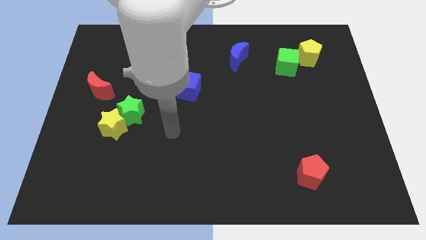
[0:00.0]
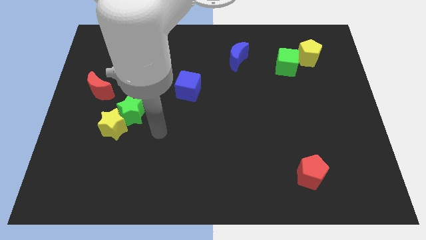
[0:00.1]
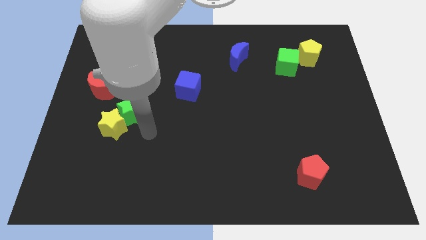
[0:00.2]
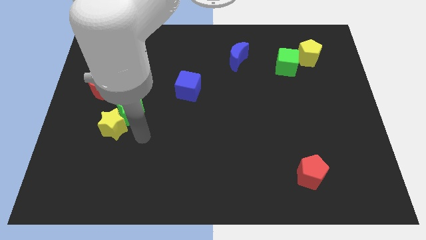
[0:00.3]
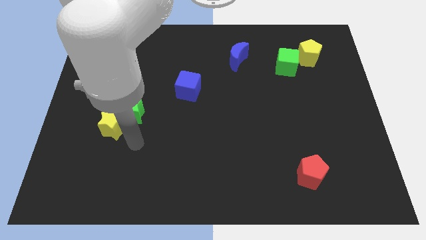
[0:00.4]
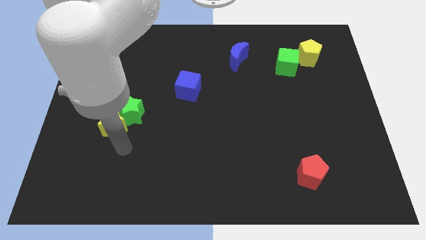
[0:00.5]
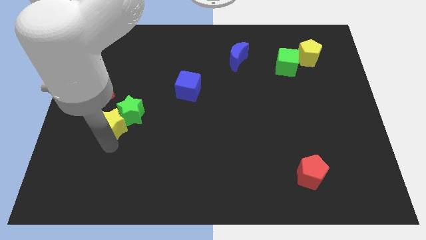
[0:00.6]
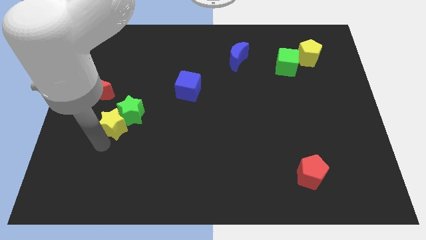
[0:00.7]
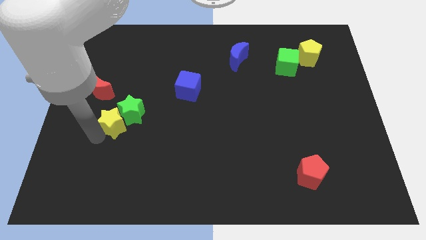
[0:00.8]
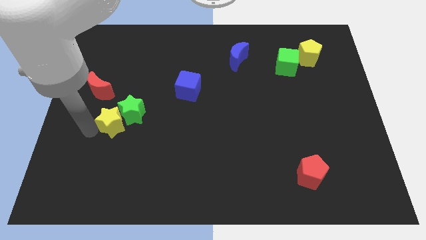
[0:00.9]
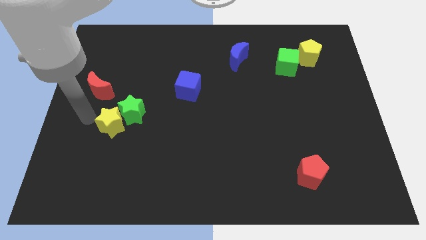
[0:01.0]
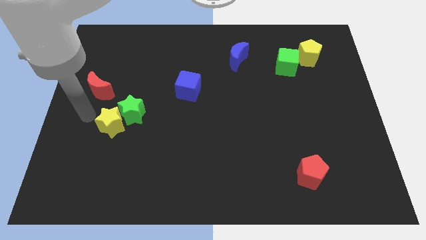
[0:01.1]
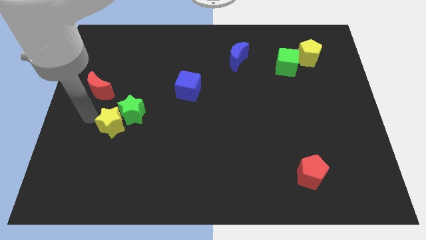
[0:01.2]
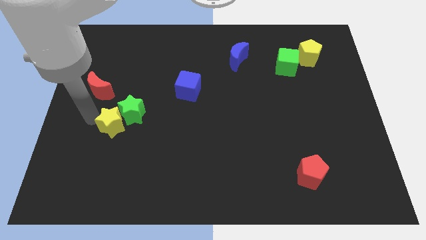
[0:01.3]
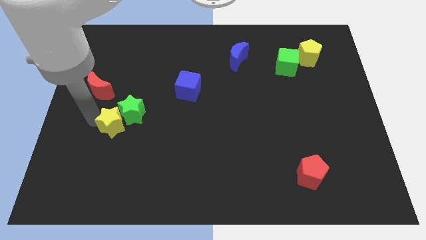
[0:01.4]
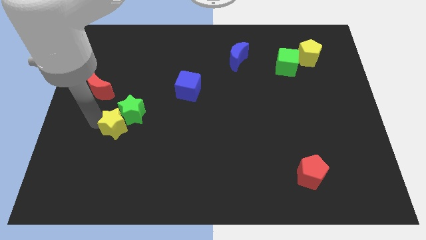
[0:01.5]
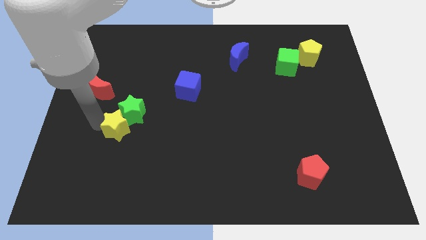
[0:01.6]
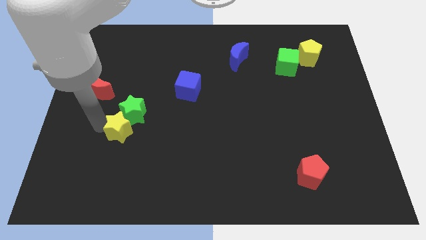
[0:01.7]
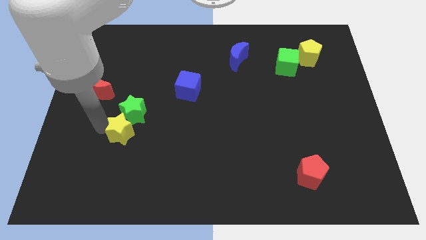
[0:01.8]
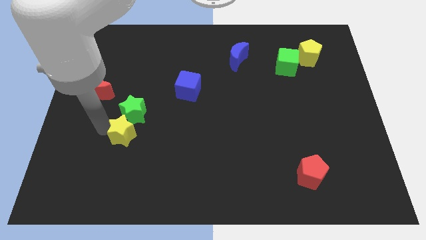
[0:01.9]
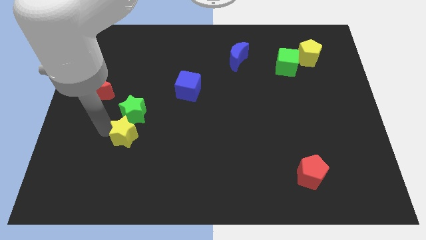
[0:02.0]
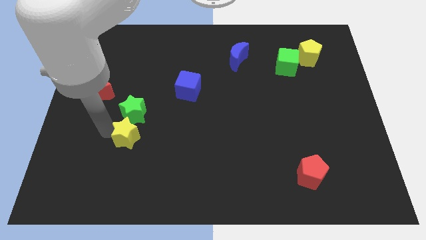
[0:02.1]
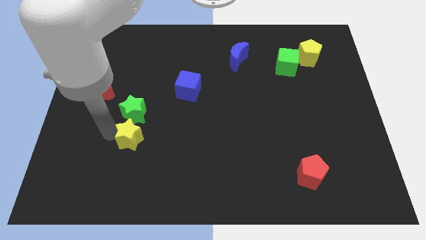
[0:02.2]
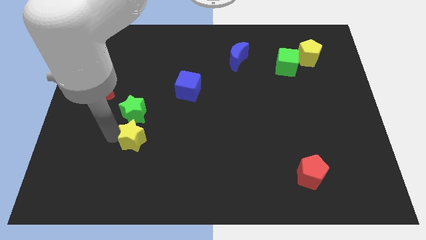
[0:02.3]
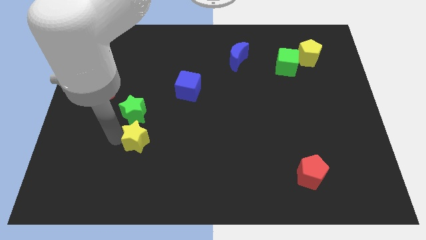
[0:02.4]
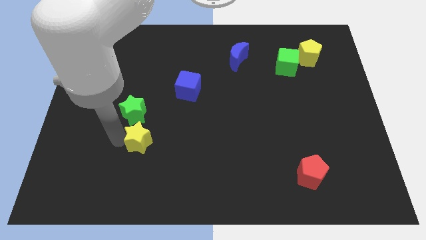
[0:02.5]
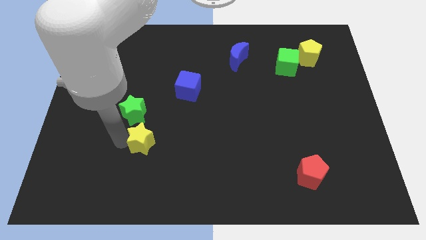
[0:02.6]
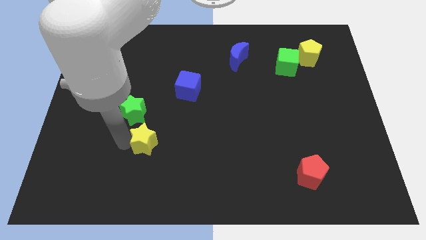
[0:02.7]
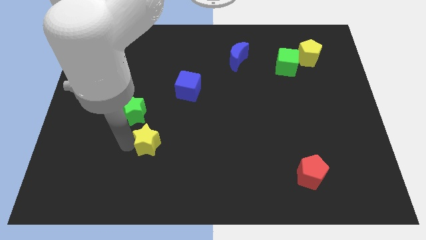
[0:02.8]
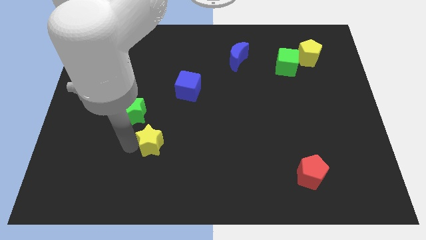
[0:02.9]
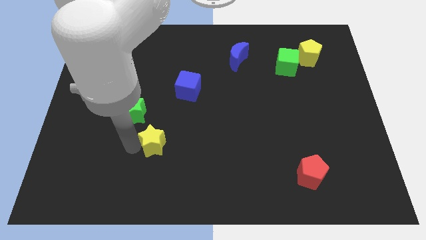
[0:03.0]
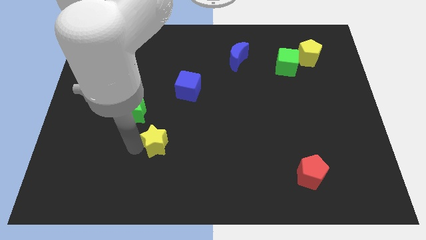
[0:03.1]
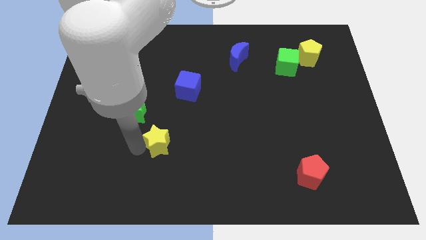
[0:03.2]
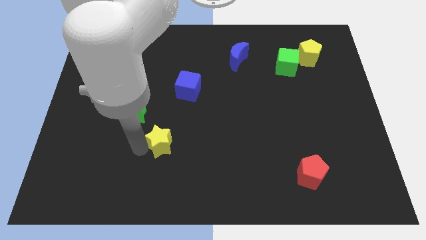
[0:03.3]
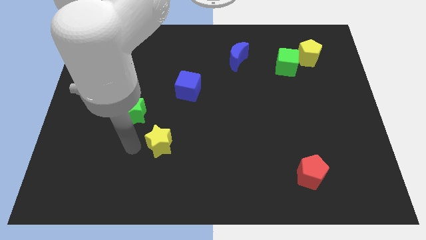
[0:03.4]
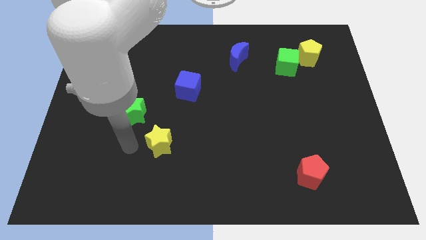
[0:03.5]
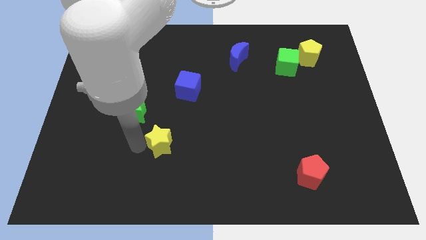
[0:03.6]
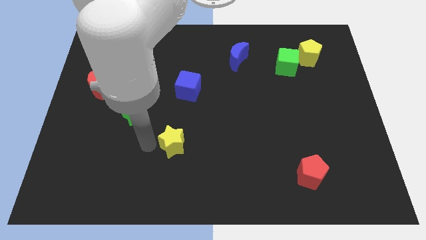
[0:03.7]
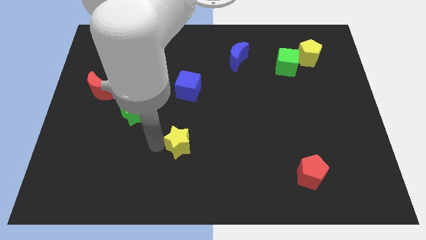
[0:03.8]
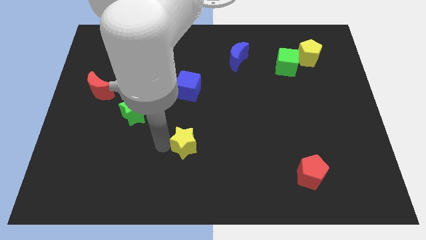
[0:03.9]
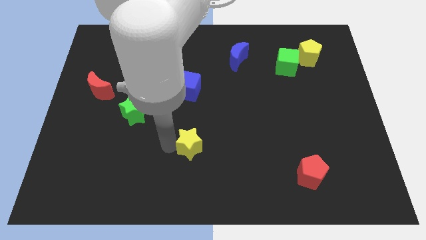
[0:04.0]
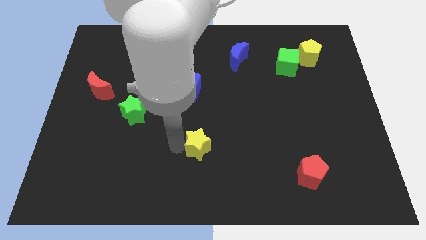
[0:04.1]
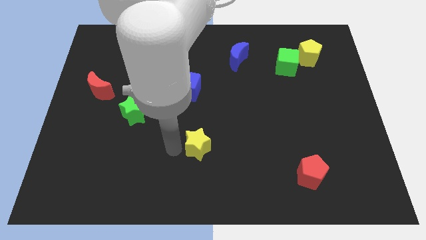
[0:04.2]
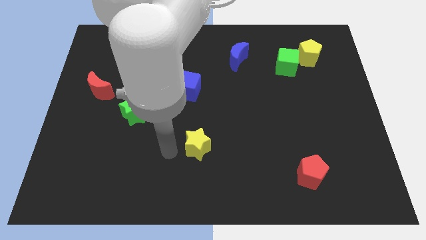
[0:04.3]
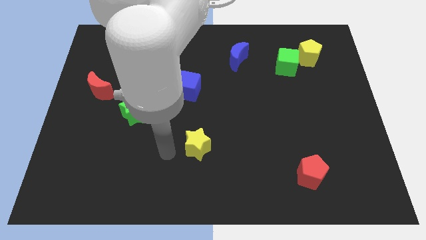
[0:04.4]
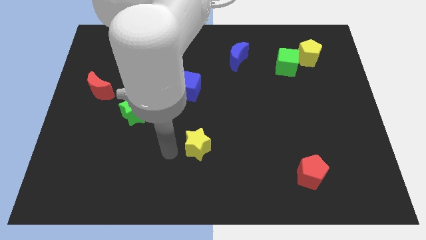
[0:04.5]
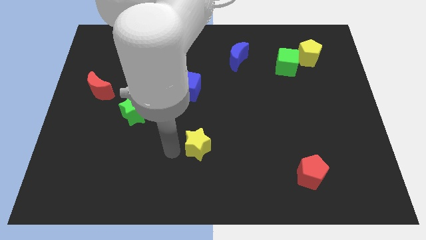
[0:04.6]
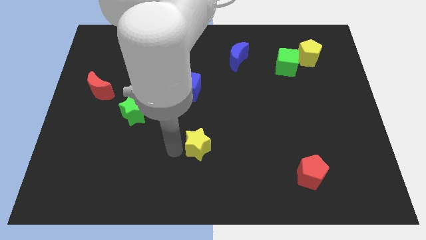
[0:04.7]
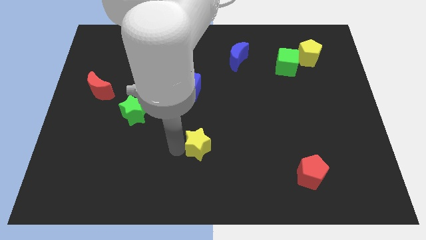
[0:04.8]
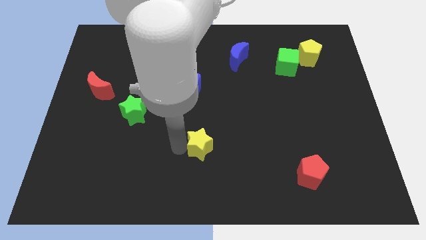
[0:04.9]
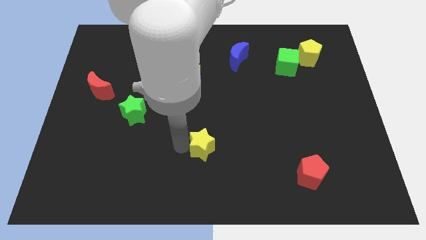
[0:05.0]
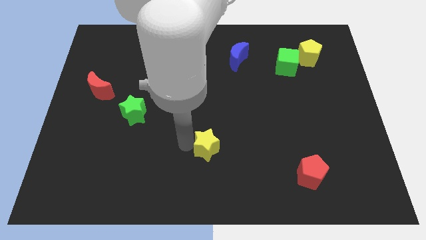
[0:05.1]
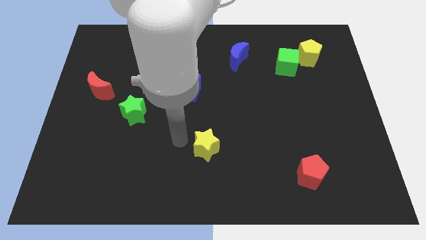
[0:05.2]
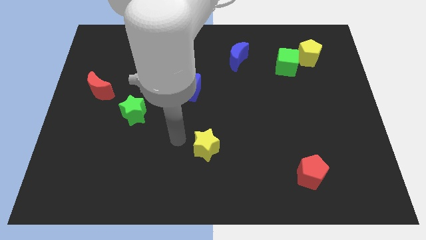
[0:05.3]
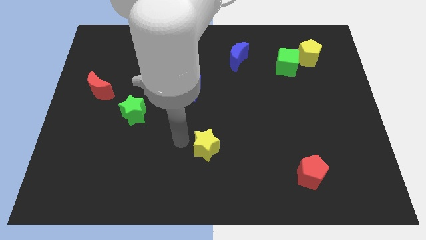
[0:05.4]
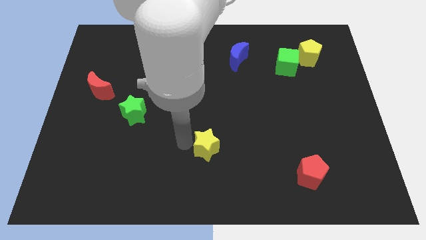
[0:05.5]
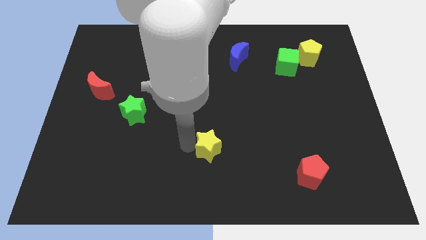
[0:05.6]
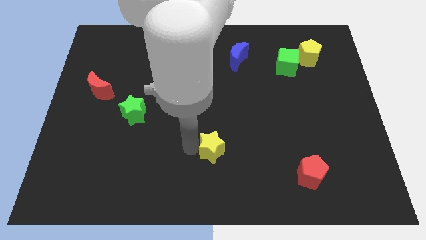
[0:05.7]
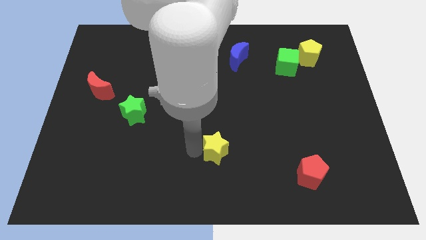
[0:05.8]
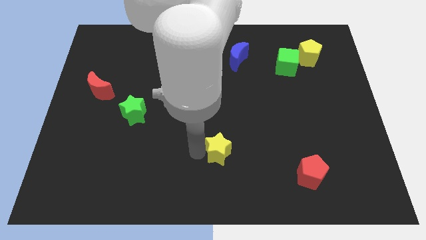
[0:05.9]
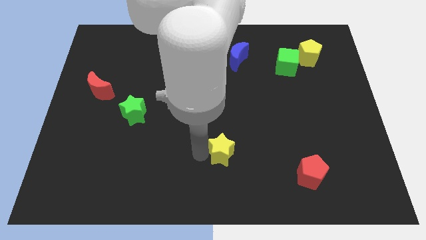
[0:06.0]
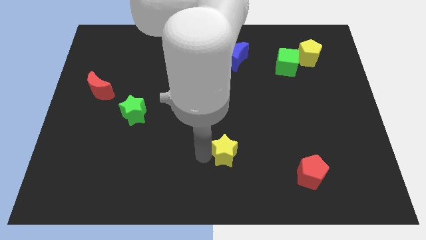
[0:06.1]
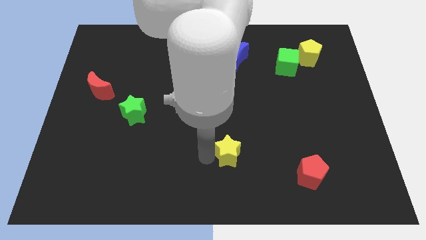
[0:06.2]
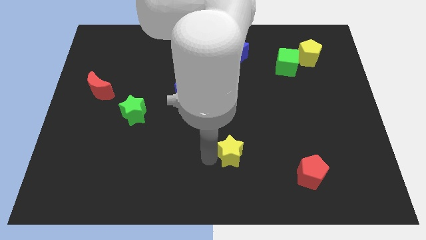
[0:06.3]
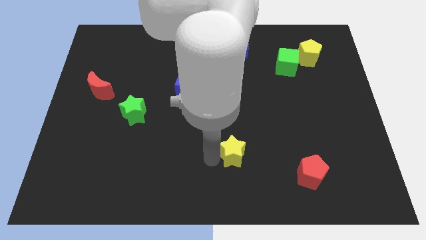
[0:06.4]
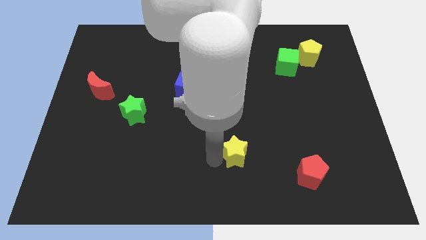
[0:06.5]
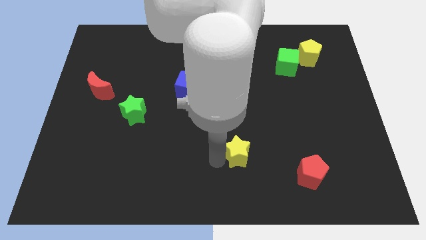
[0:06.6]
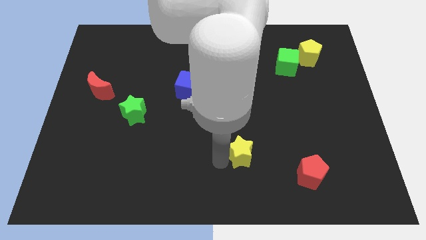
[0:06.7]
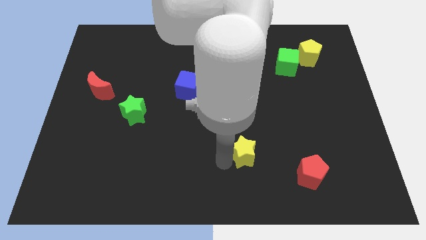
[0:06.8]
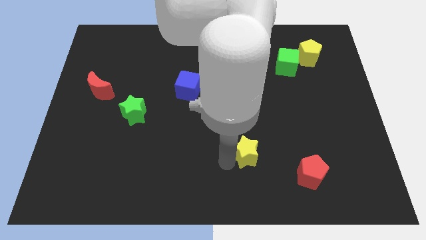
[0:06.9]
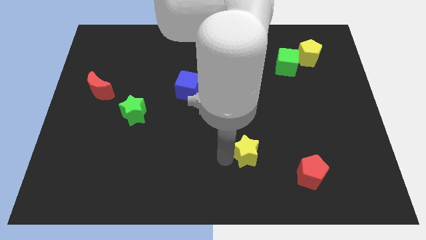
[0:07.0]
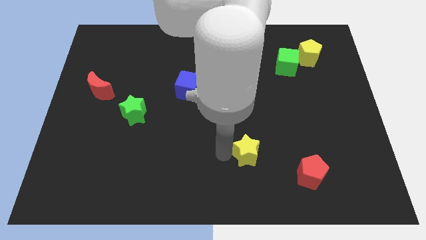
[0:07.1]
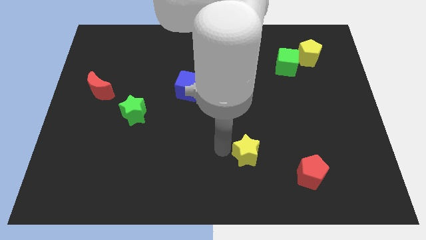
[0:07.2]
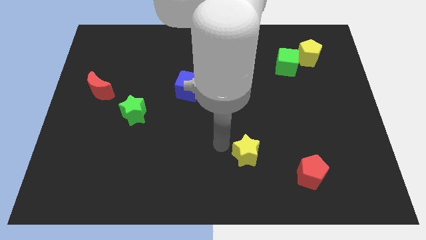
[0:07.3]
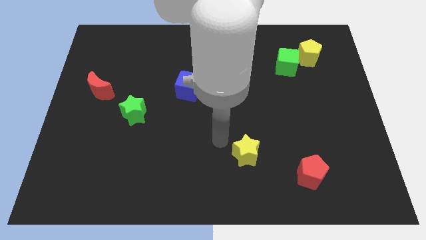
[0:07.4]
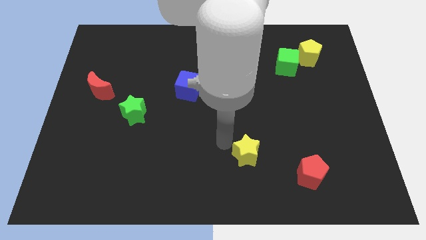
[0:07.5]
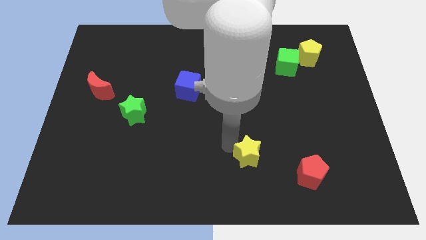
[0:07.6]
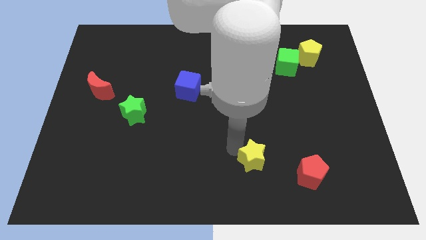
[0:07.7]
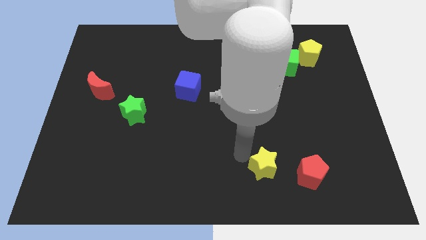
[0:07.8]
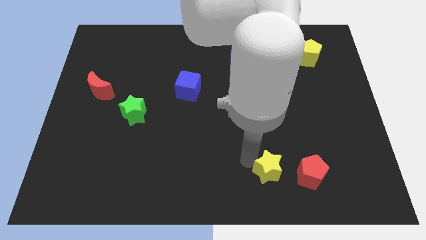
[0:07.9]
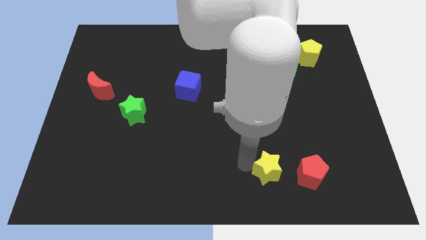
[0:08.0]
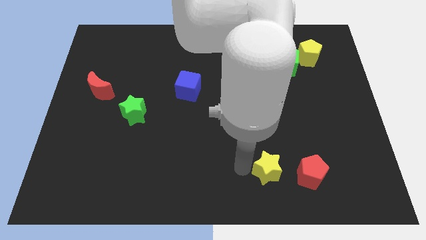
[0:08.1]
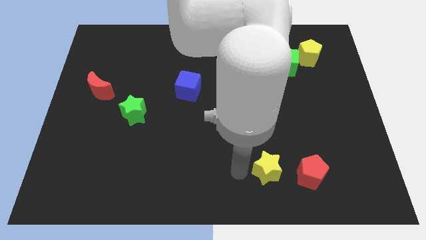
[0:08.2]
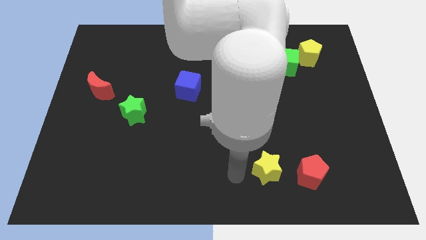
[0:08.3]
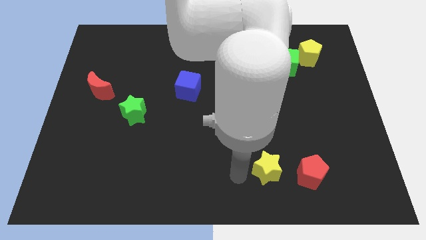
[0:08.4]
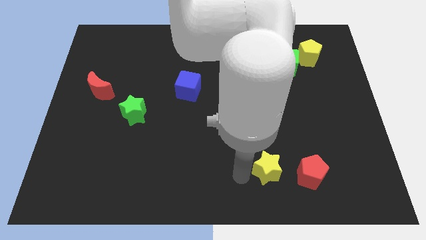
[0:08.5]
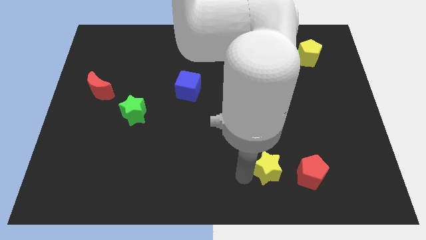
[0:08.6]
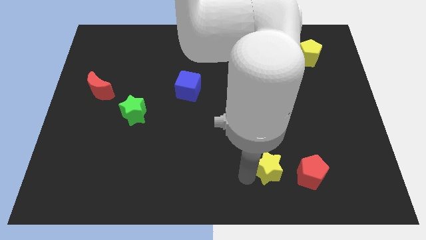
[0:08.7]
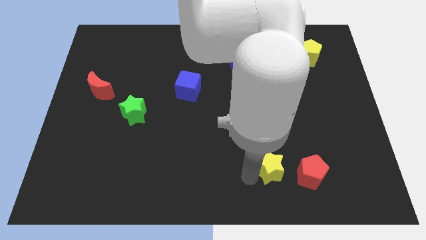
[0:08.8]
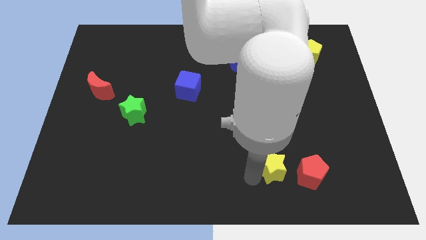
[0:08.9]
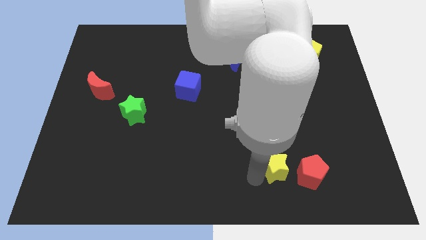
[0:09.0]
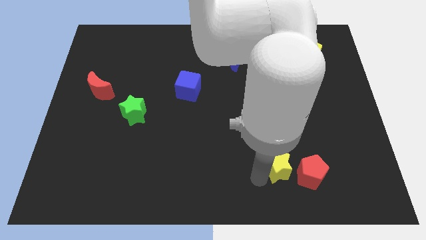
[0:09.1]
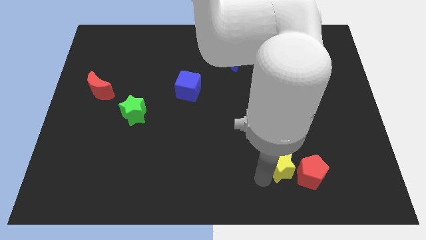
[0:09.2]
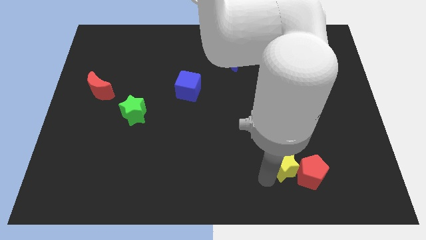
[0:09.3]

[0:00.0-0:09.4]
move the yellow star next to the red pentagon
